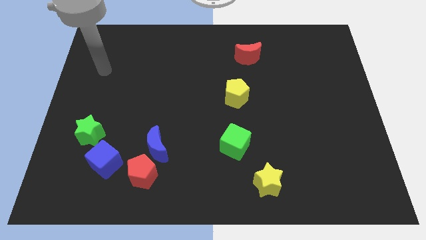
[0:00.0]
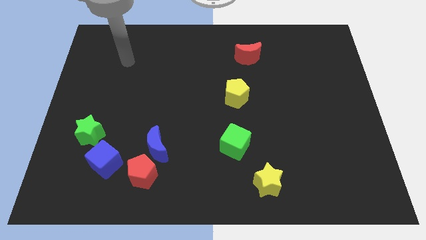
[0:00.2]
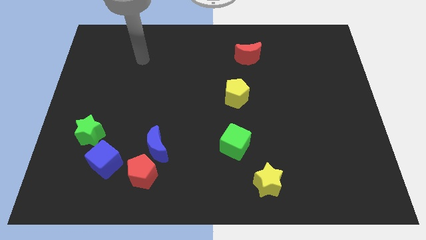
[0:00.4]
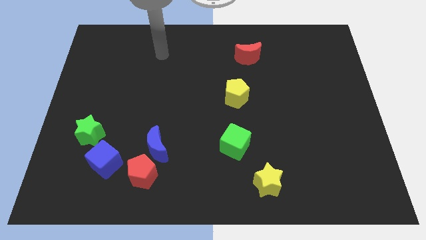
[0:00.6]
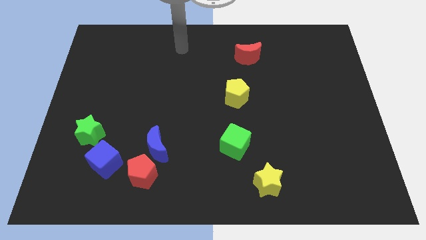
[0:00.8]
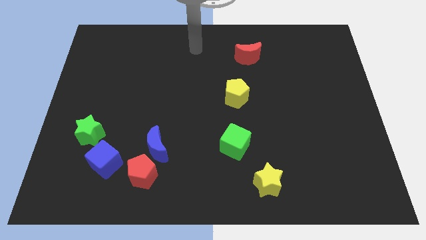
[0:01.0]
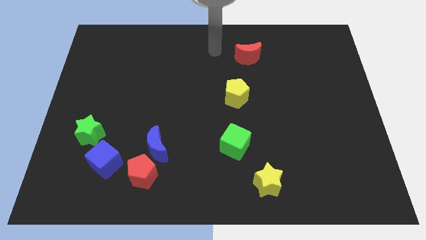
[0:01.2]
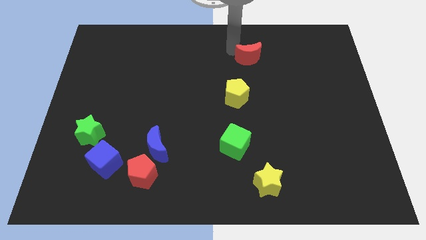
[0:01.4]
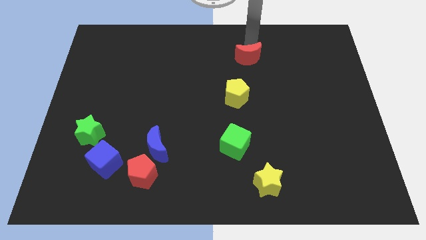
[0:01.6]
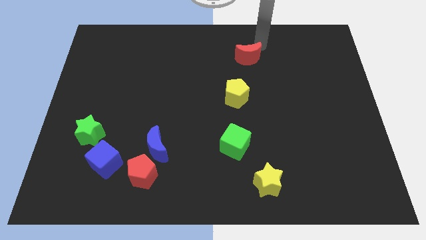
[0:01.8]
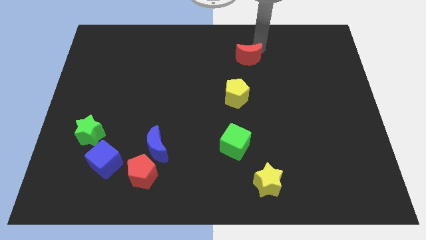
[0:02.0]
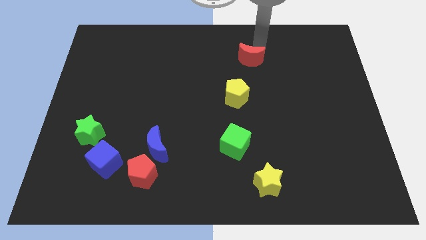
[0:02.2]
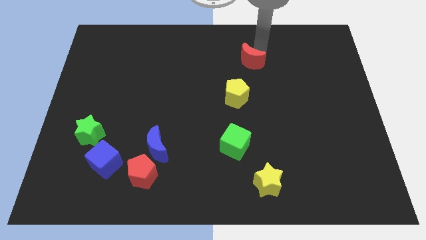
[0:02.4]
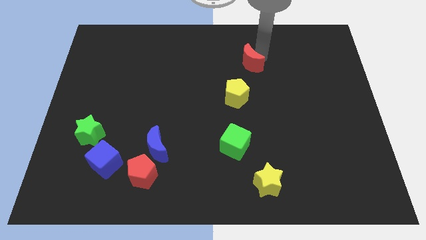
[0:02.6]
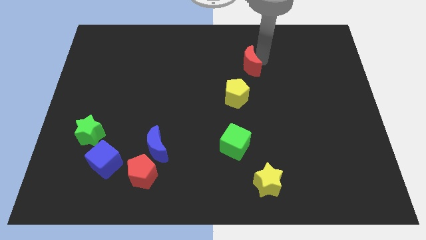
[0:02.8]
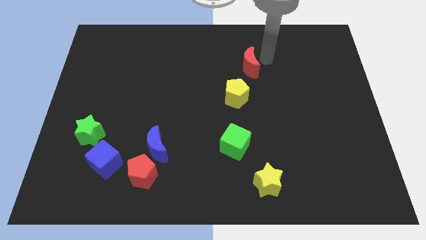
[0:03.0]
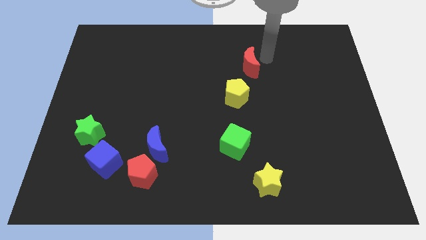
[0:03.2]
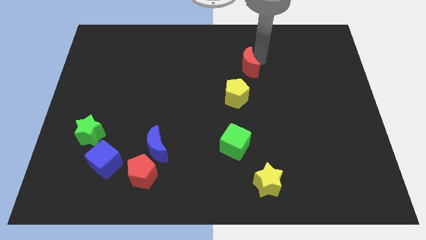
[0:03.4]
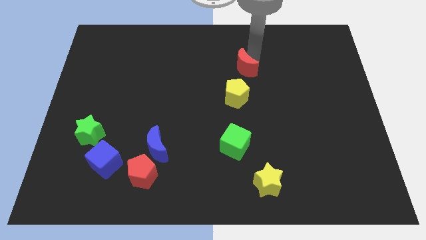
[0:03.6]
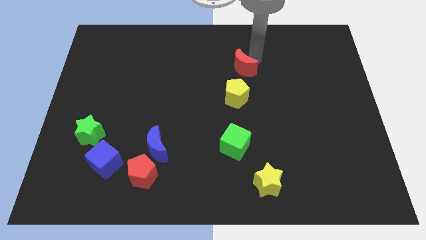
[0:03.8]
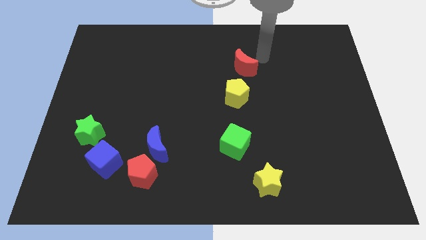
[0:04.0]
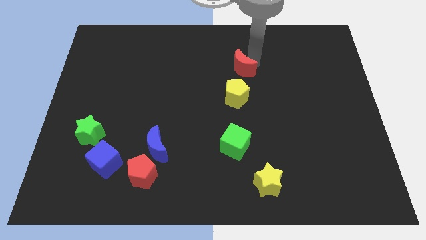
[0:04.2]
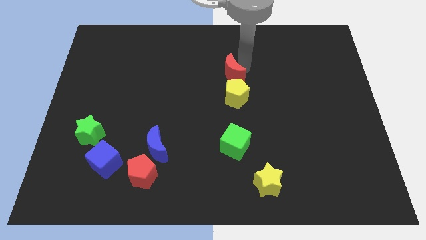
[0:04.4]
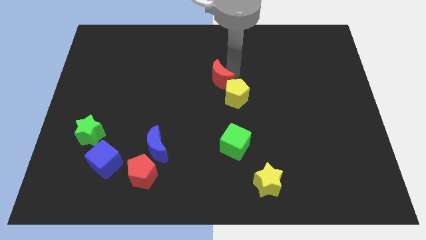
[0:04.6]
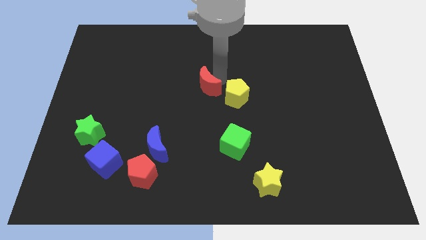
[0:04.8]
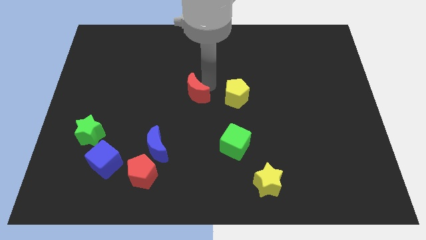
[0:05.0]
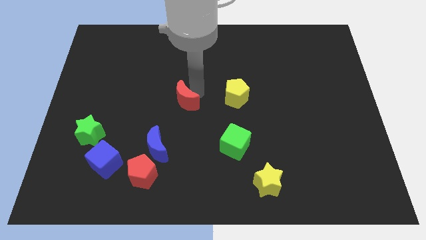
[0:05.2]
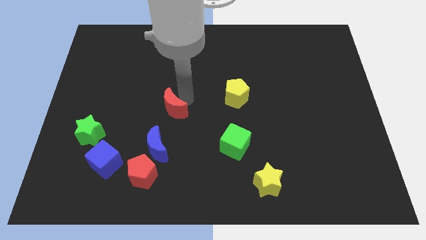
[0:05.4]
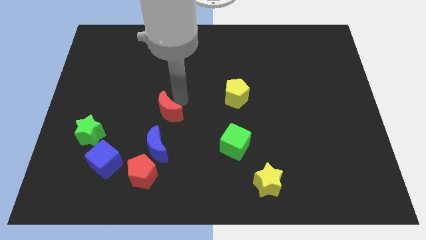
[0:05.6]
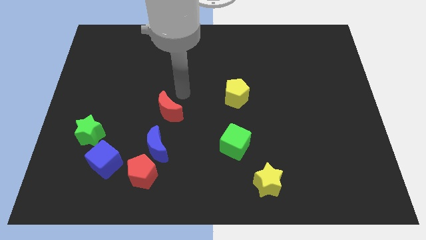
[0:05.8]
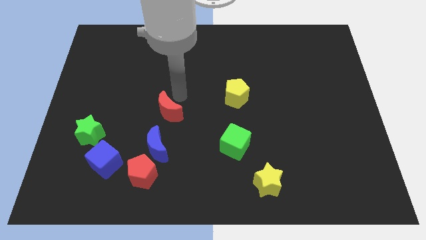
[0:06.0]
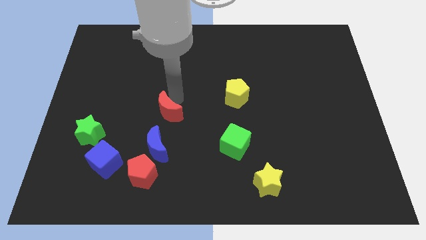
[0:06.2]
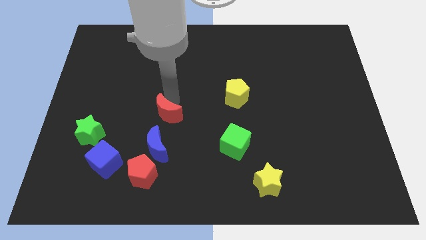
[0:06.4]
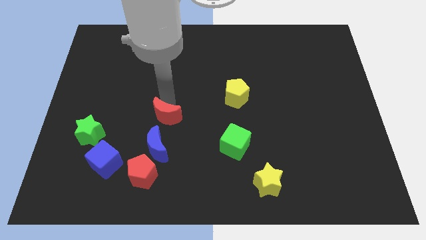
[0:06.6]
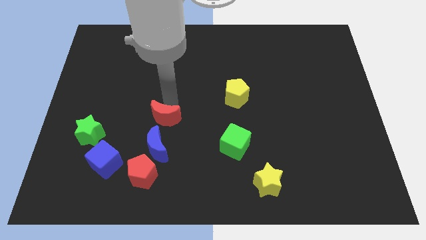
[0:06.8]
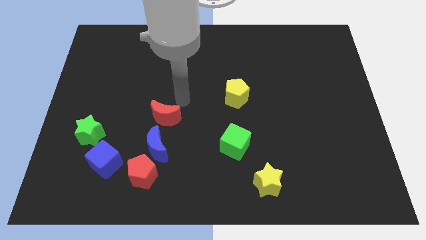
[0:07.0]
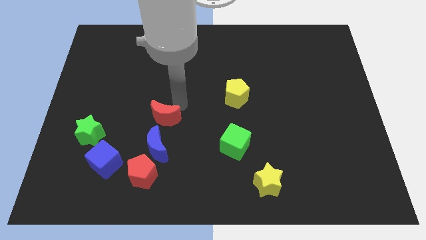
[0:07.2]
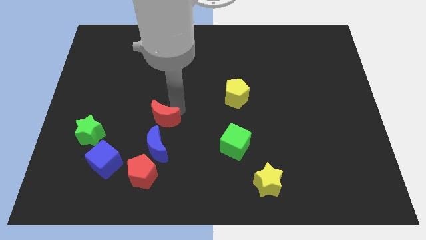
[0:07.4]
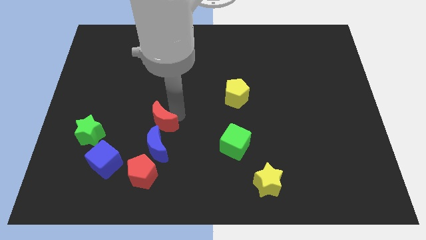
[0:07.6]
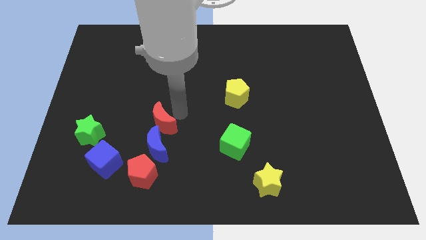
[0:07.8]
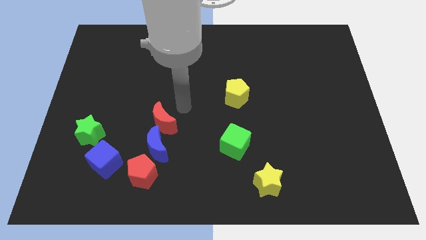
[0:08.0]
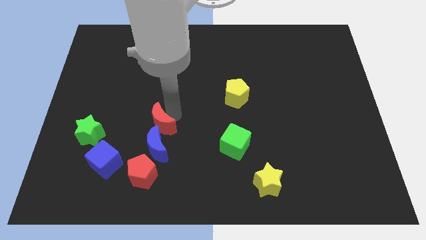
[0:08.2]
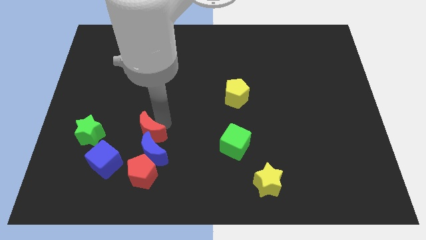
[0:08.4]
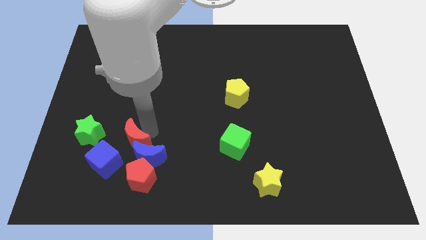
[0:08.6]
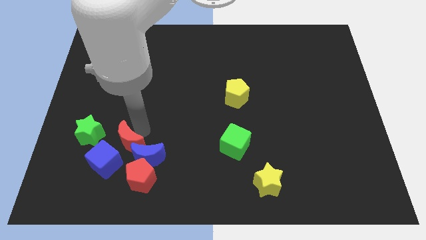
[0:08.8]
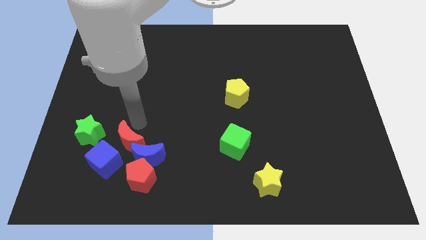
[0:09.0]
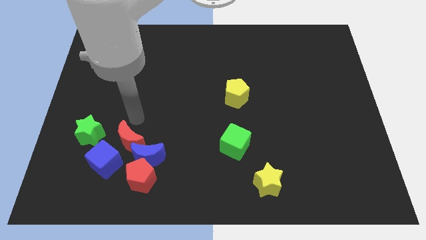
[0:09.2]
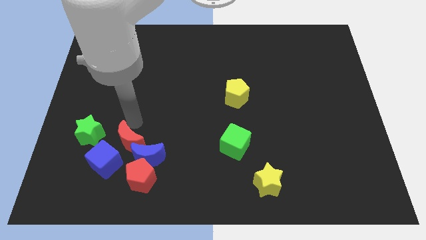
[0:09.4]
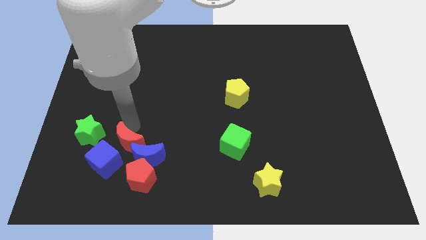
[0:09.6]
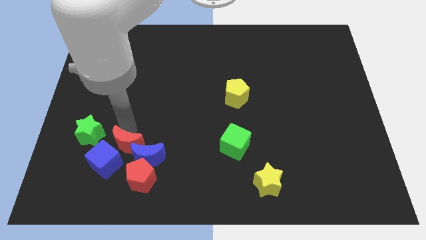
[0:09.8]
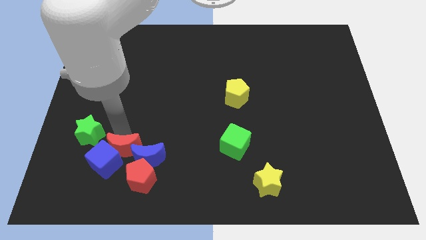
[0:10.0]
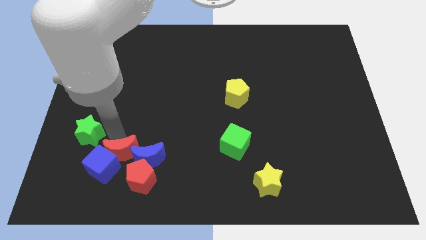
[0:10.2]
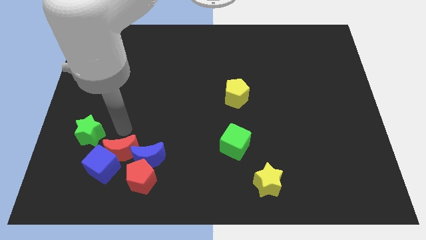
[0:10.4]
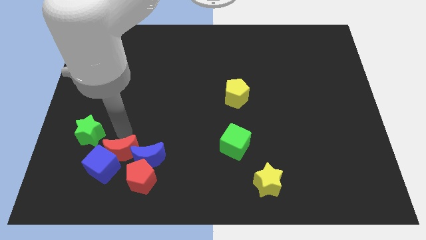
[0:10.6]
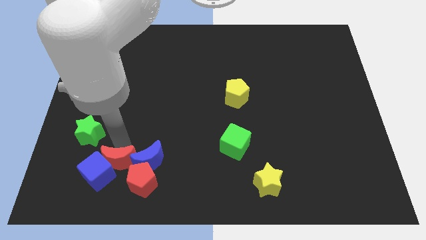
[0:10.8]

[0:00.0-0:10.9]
put the red moon to the left side of the red pentagon

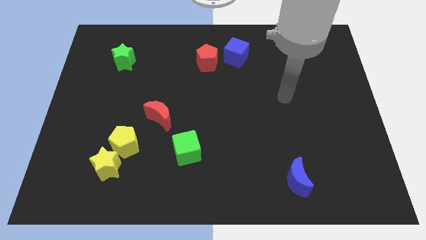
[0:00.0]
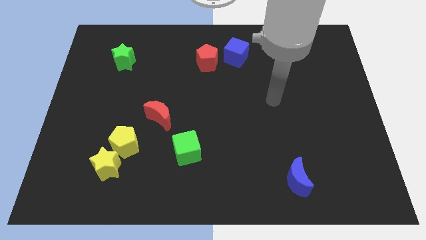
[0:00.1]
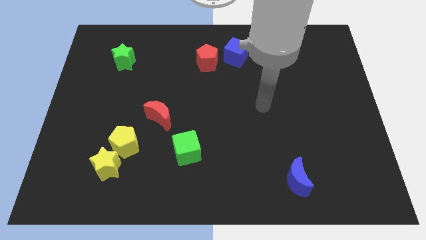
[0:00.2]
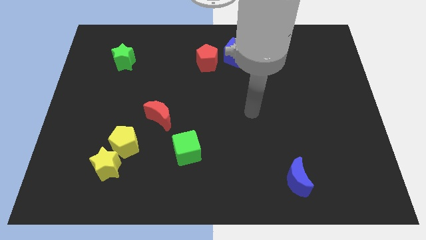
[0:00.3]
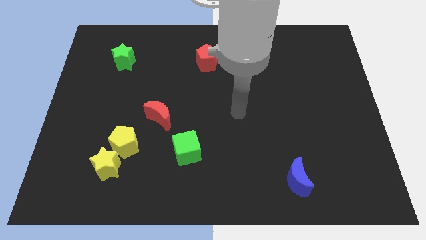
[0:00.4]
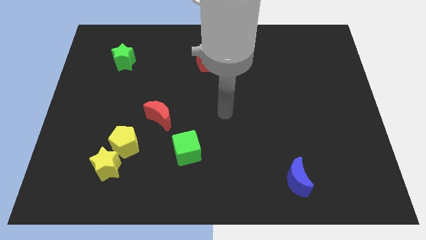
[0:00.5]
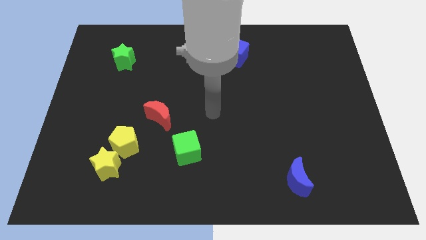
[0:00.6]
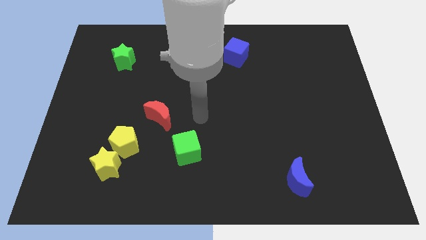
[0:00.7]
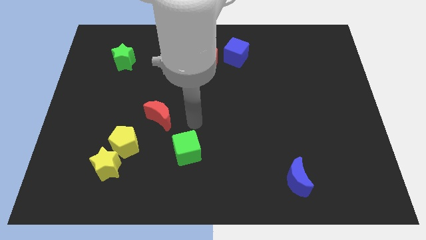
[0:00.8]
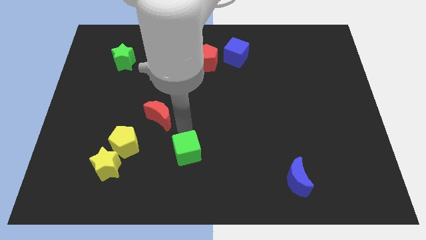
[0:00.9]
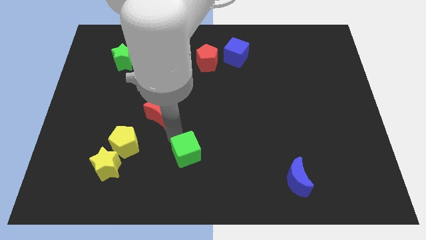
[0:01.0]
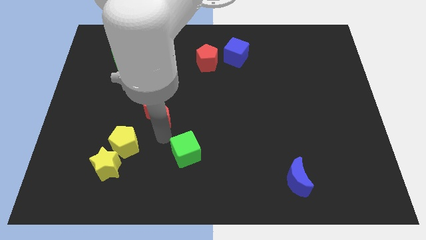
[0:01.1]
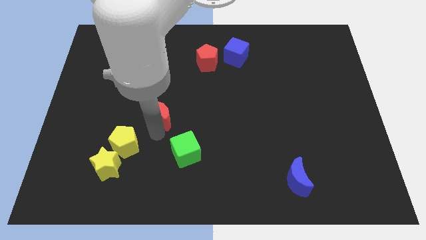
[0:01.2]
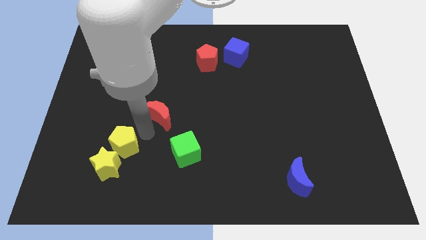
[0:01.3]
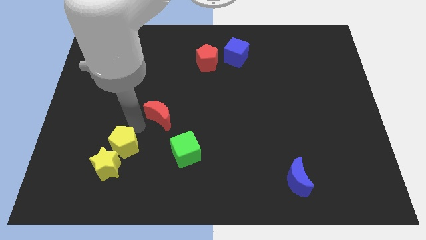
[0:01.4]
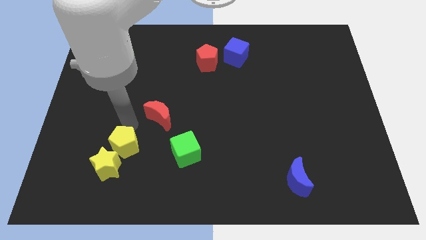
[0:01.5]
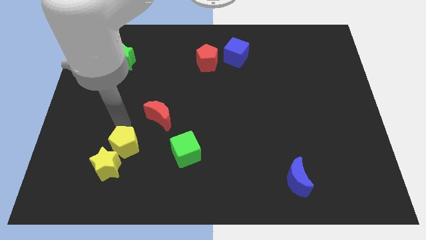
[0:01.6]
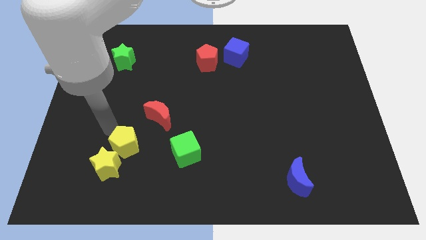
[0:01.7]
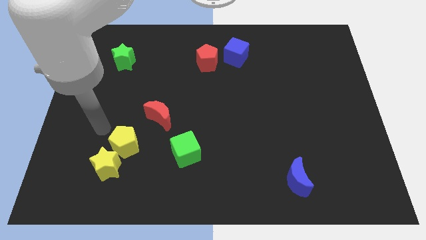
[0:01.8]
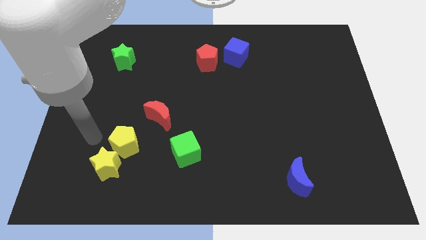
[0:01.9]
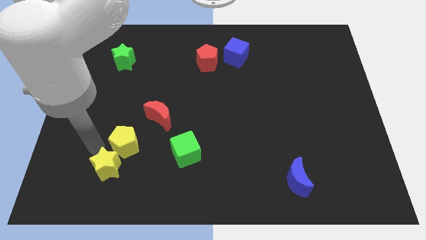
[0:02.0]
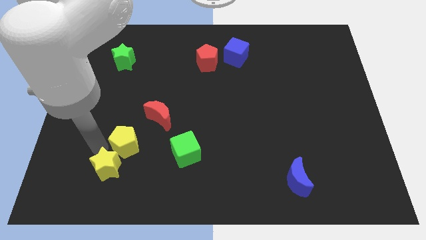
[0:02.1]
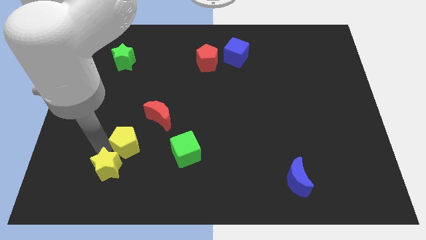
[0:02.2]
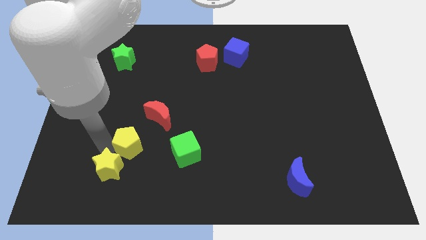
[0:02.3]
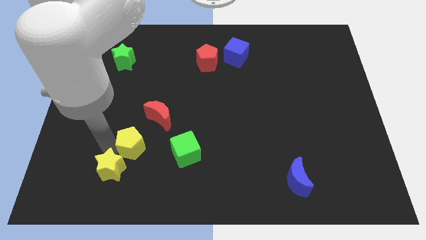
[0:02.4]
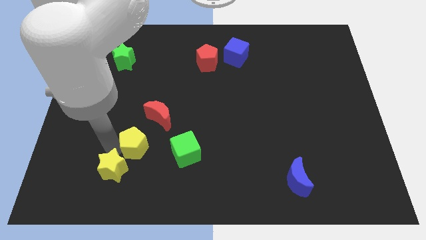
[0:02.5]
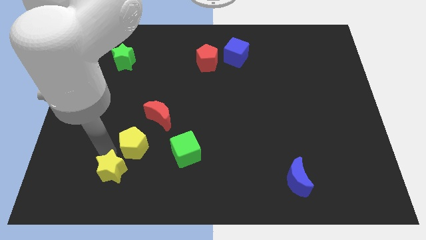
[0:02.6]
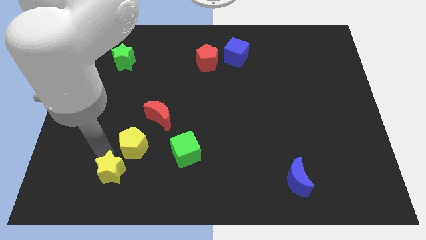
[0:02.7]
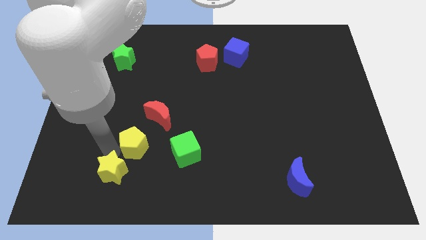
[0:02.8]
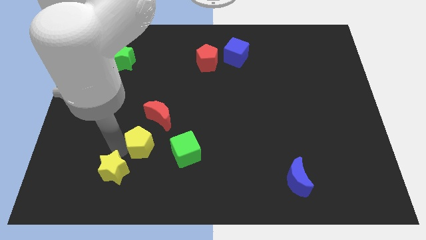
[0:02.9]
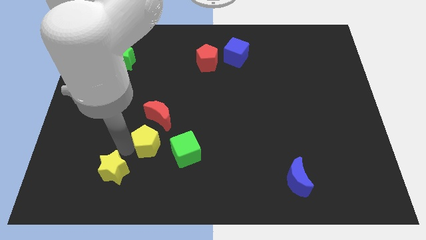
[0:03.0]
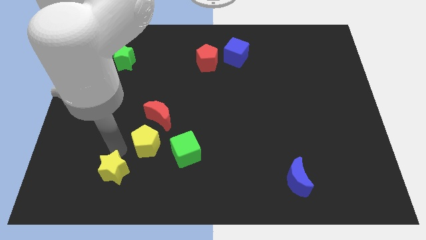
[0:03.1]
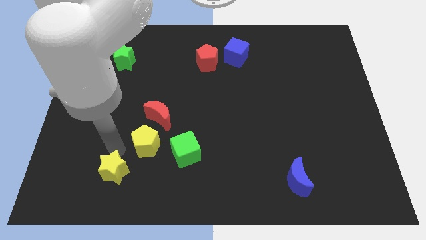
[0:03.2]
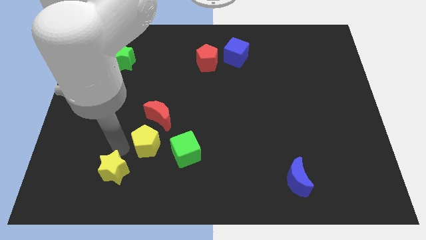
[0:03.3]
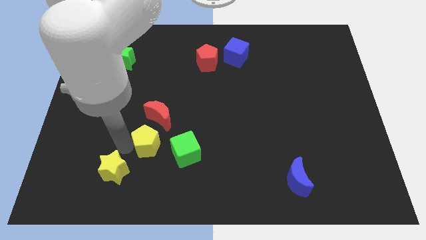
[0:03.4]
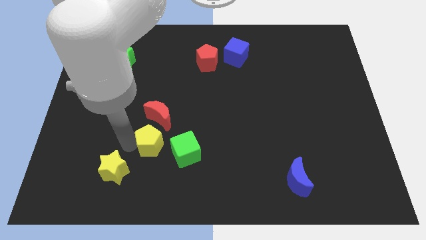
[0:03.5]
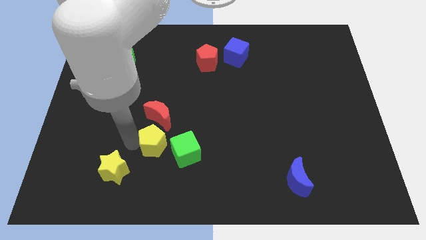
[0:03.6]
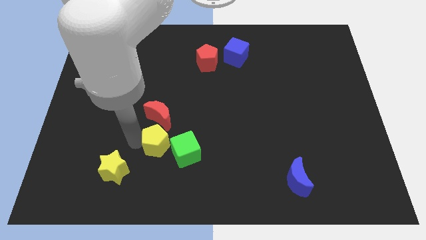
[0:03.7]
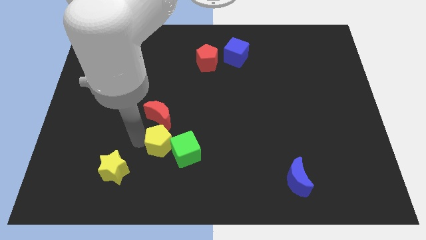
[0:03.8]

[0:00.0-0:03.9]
put the yellow pentagon to the bottom right of the red moon
